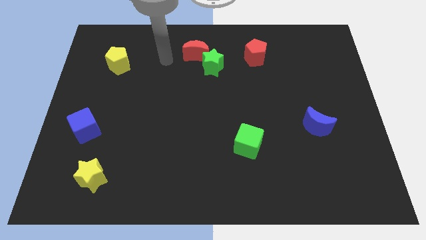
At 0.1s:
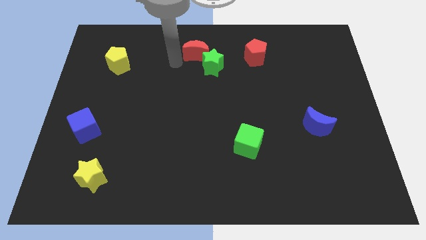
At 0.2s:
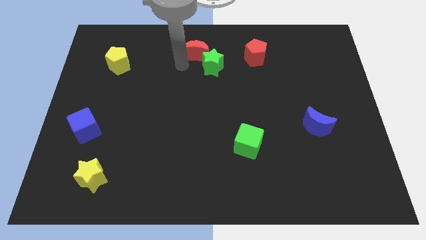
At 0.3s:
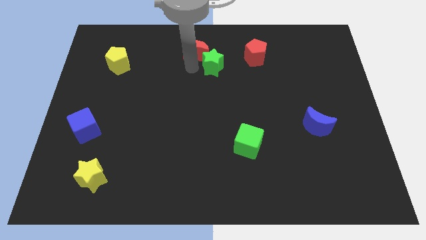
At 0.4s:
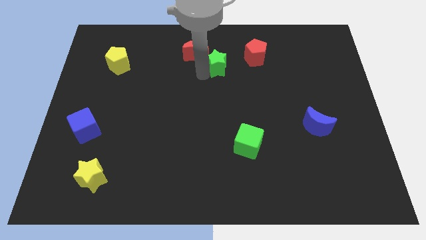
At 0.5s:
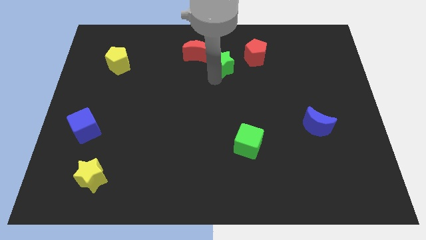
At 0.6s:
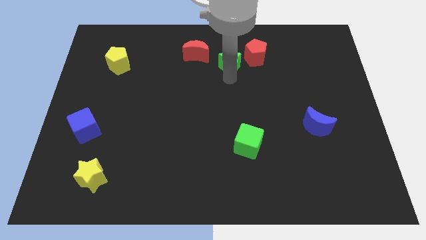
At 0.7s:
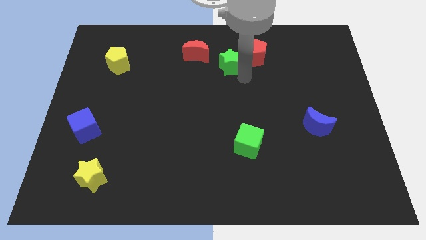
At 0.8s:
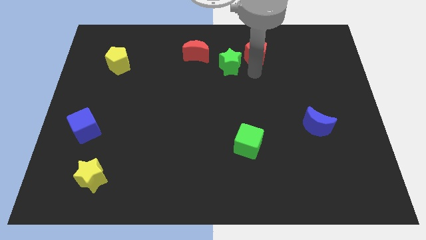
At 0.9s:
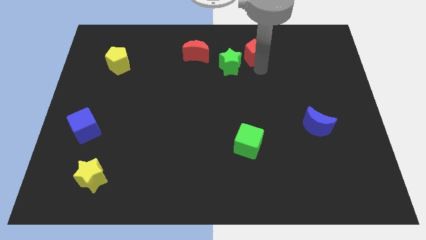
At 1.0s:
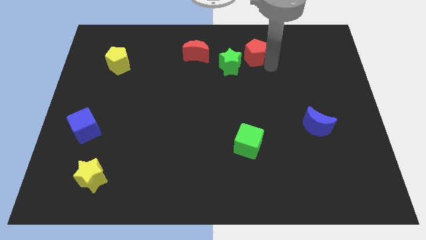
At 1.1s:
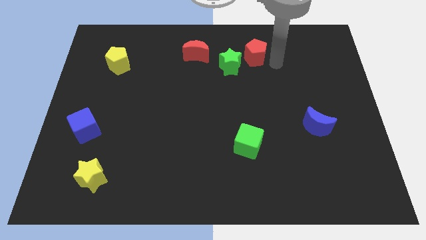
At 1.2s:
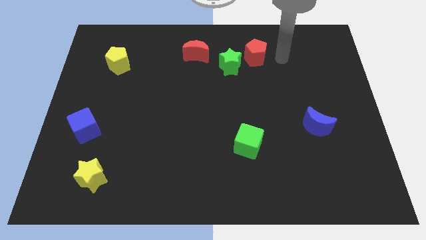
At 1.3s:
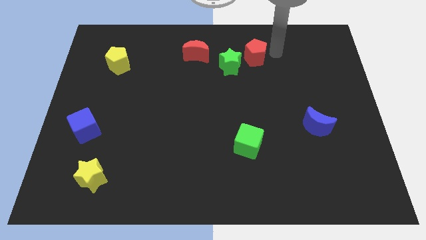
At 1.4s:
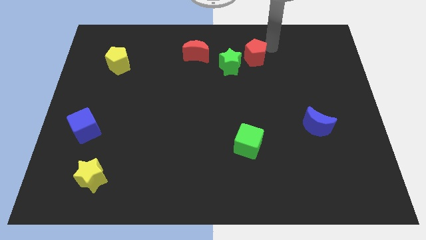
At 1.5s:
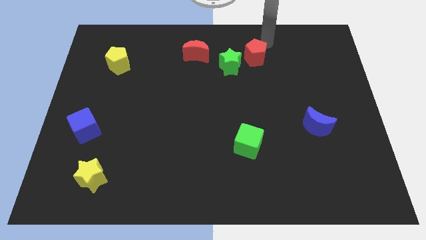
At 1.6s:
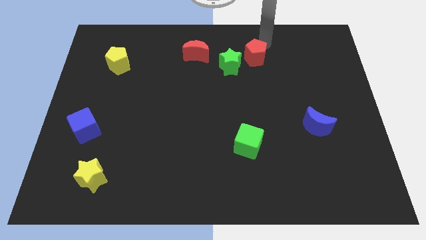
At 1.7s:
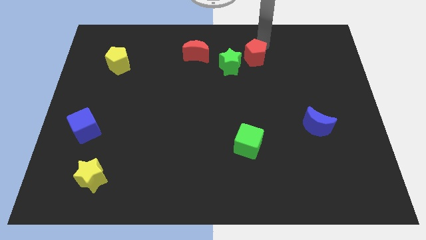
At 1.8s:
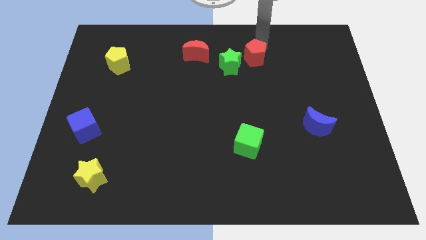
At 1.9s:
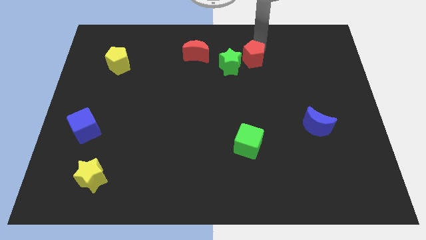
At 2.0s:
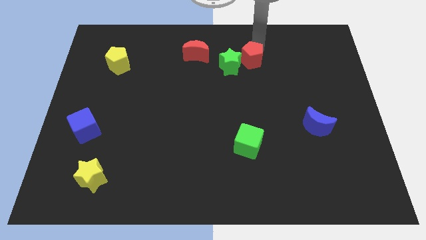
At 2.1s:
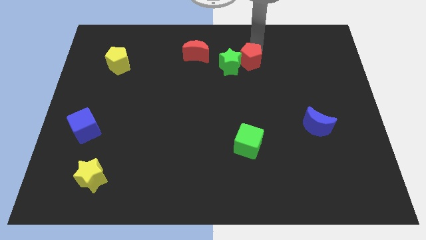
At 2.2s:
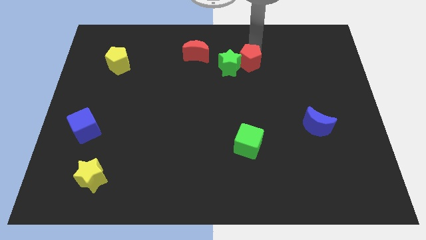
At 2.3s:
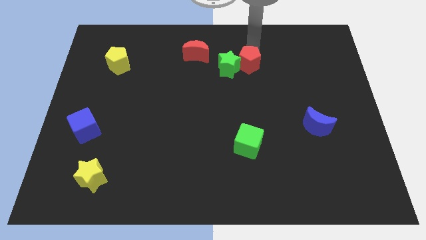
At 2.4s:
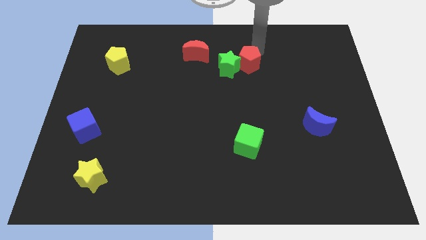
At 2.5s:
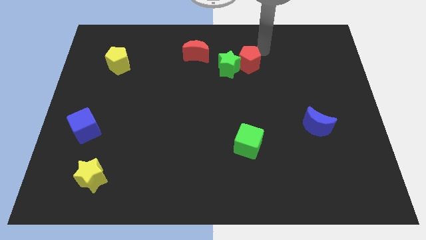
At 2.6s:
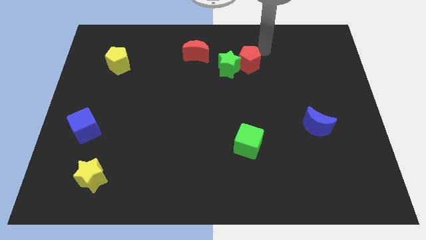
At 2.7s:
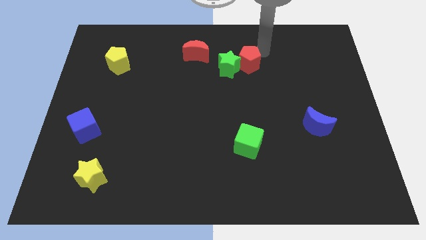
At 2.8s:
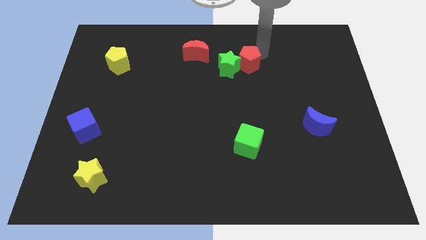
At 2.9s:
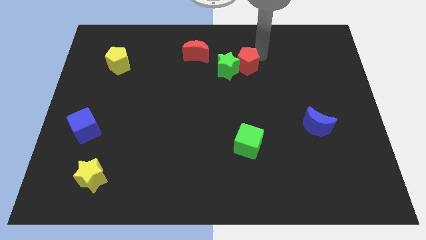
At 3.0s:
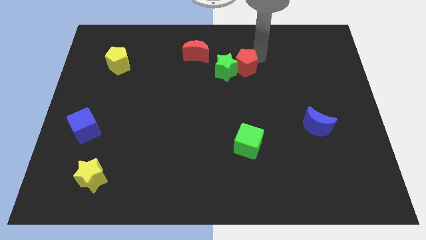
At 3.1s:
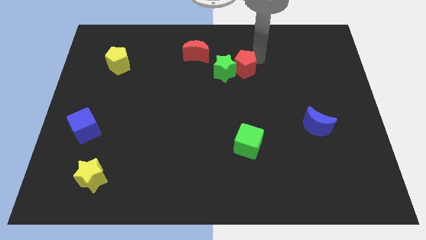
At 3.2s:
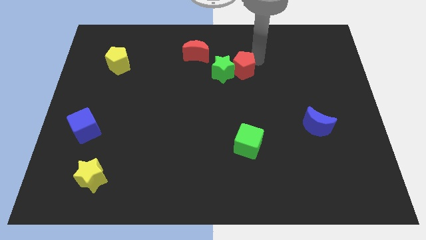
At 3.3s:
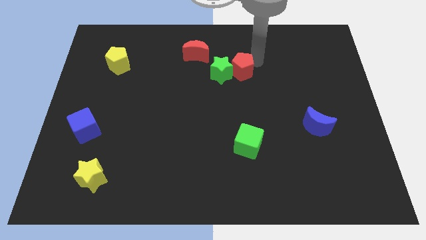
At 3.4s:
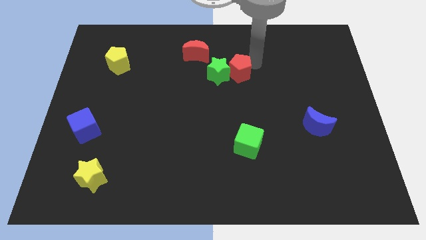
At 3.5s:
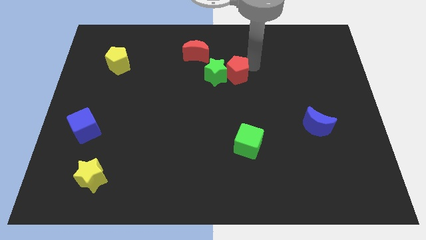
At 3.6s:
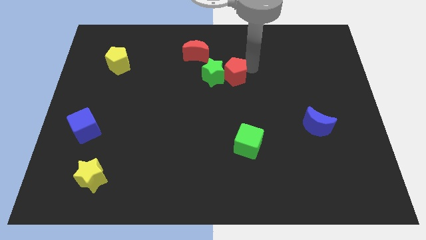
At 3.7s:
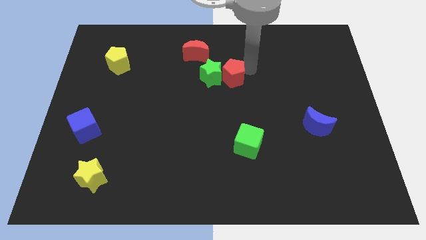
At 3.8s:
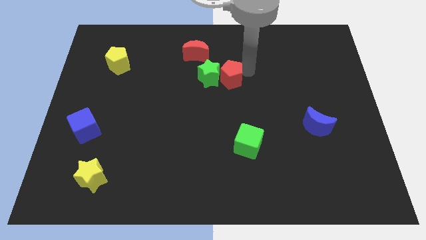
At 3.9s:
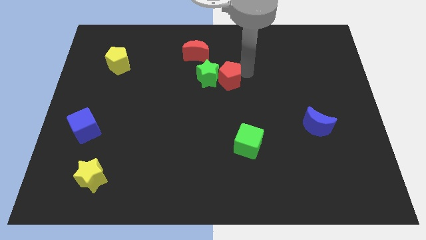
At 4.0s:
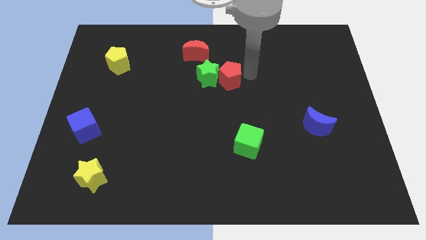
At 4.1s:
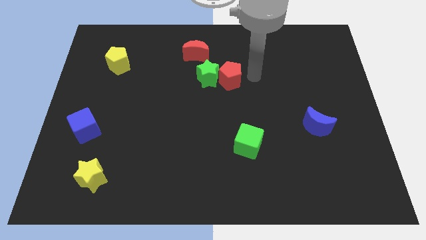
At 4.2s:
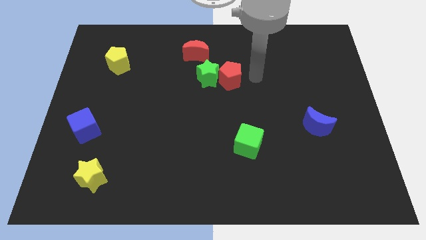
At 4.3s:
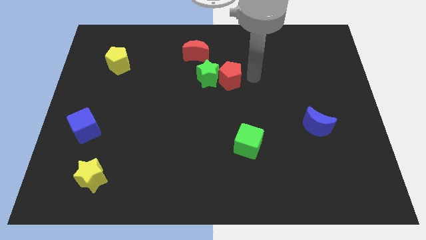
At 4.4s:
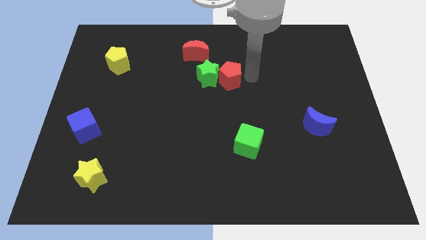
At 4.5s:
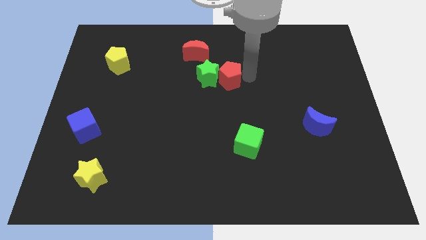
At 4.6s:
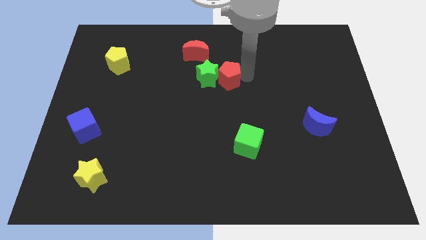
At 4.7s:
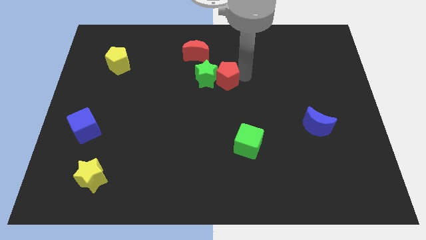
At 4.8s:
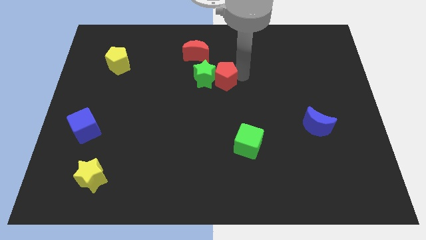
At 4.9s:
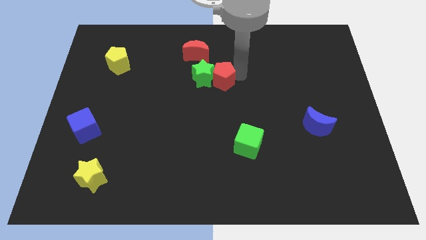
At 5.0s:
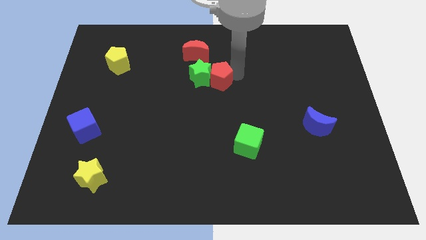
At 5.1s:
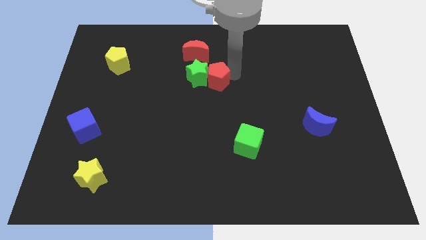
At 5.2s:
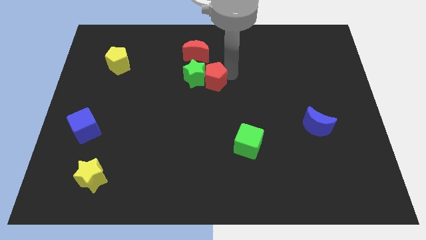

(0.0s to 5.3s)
slide the red pentagon below the red moon

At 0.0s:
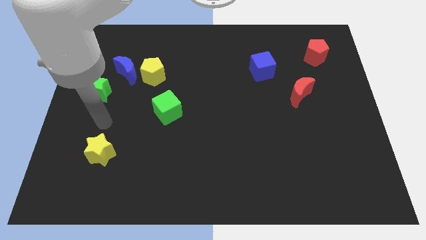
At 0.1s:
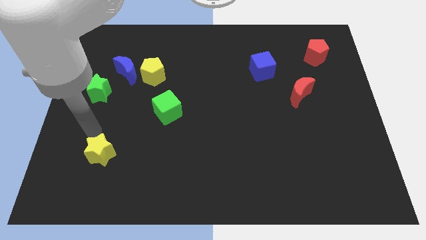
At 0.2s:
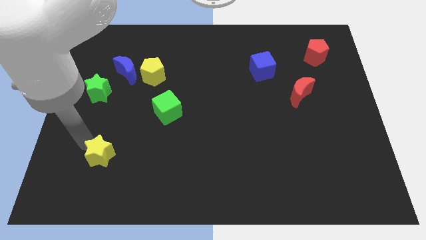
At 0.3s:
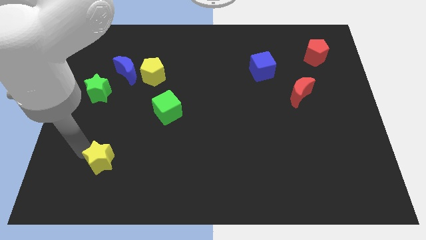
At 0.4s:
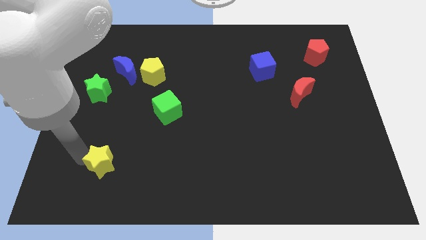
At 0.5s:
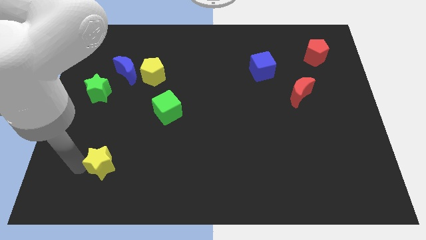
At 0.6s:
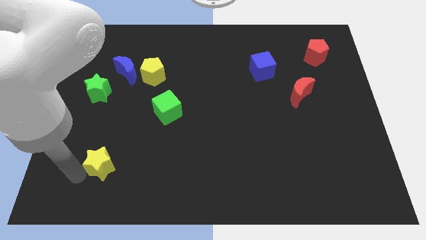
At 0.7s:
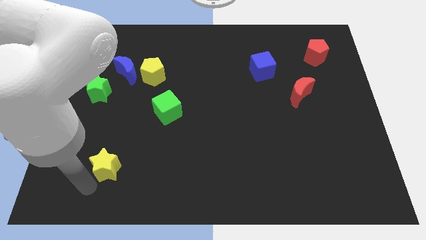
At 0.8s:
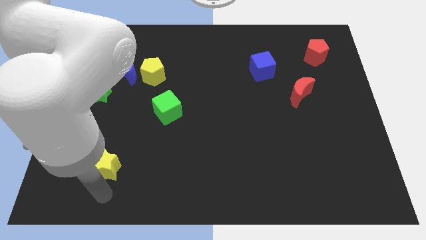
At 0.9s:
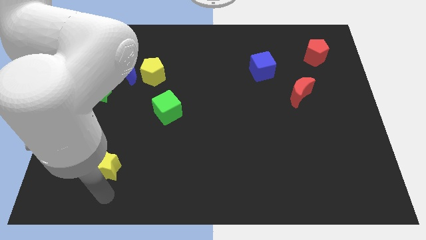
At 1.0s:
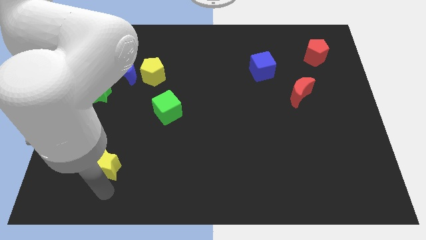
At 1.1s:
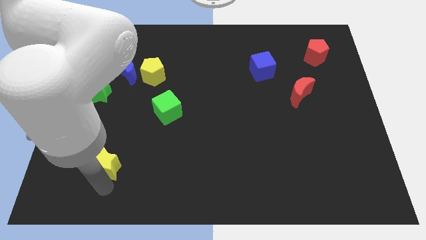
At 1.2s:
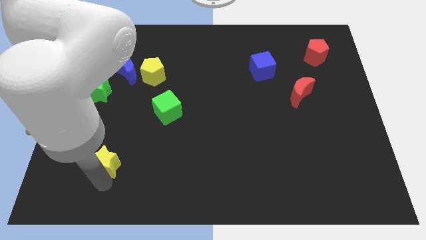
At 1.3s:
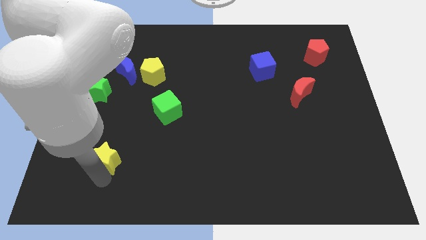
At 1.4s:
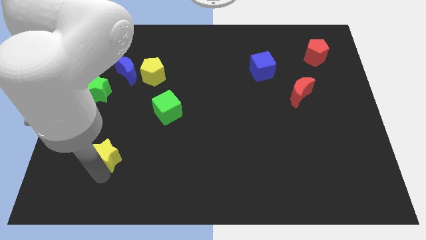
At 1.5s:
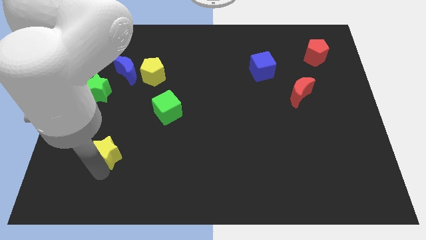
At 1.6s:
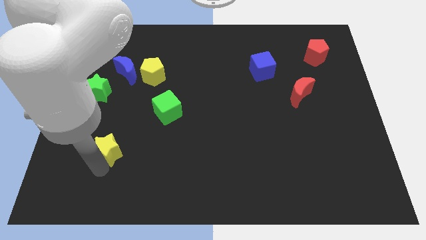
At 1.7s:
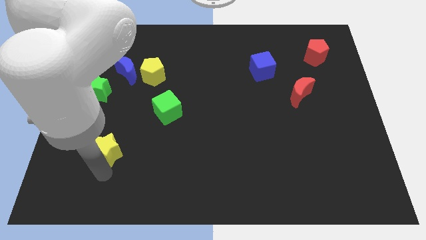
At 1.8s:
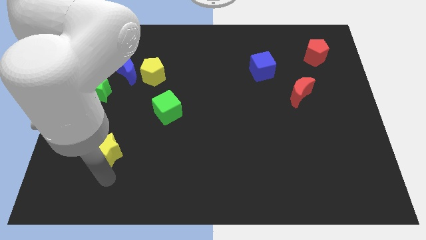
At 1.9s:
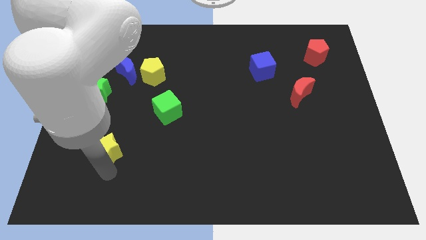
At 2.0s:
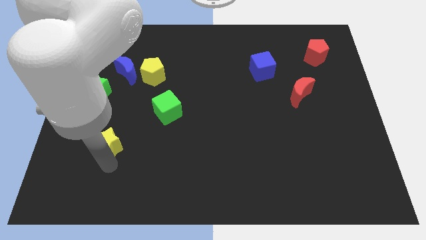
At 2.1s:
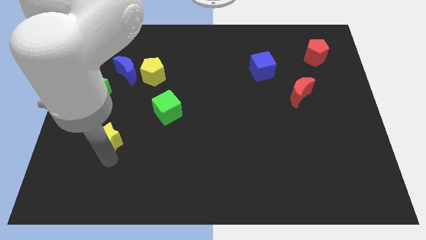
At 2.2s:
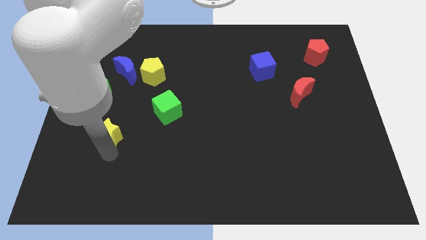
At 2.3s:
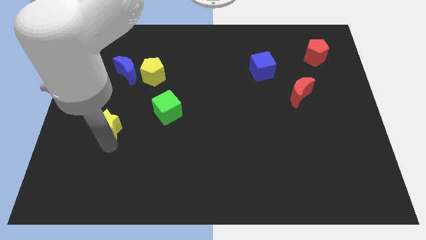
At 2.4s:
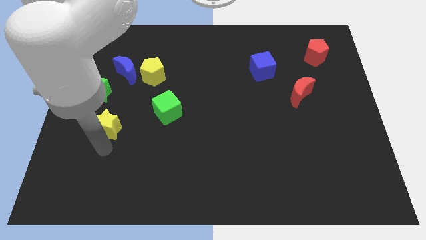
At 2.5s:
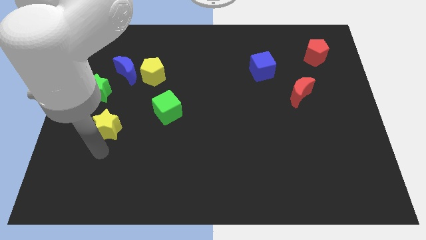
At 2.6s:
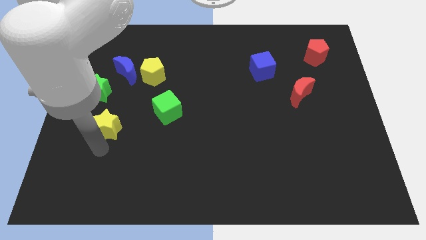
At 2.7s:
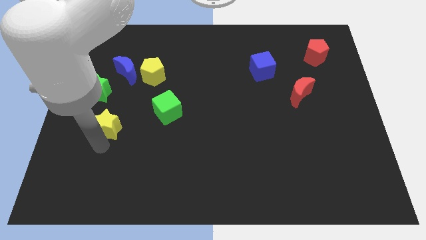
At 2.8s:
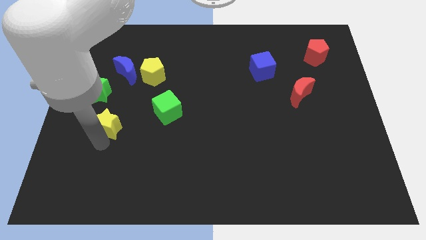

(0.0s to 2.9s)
move the yellow star to the bottom right side of the green star
